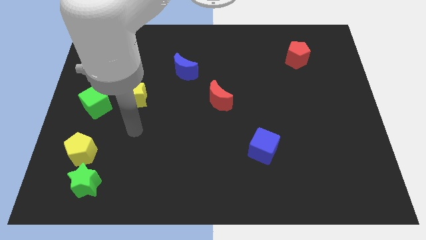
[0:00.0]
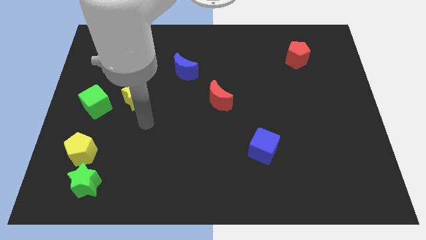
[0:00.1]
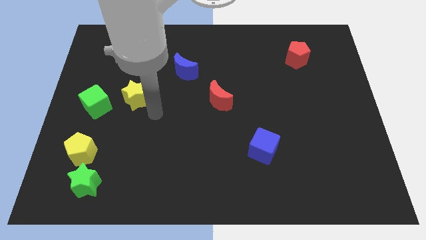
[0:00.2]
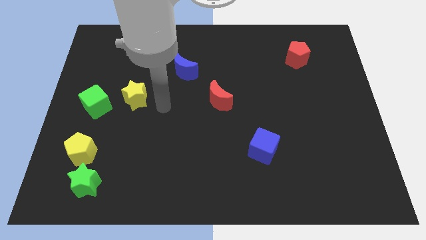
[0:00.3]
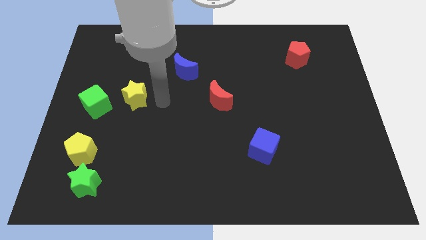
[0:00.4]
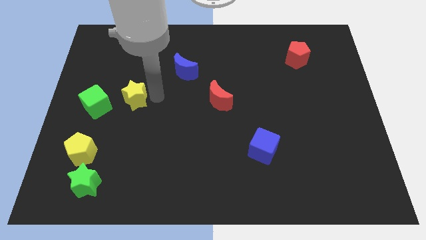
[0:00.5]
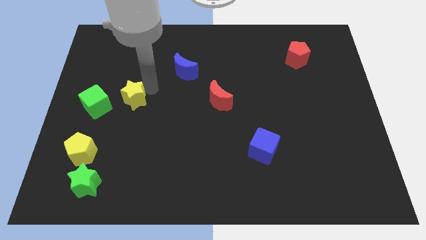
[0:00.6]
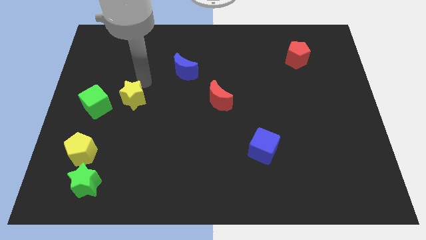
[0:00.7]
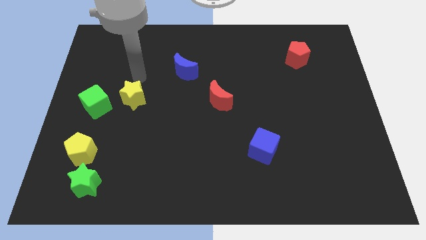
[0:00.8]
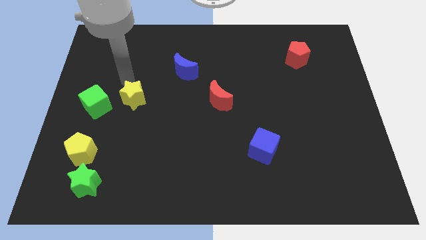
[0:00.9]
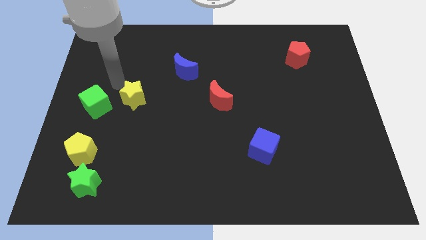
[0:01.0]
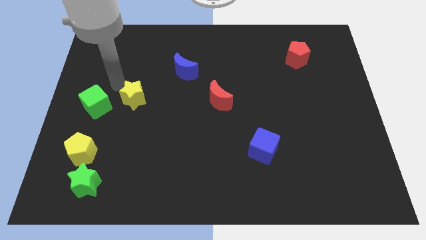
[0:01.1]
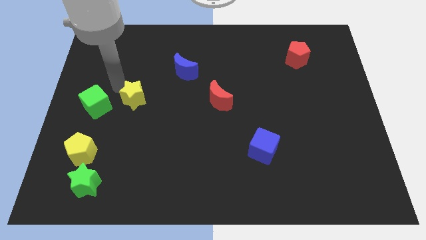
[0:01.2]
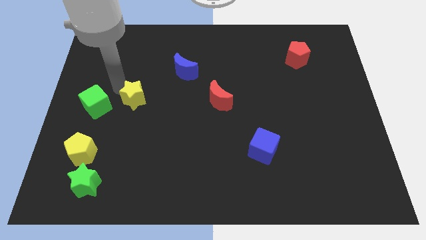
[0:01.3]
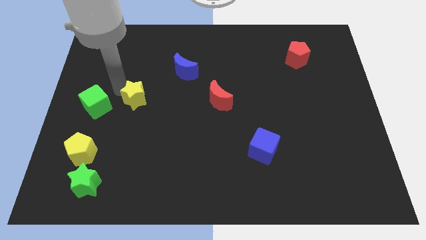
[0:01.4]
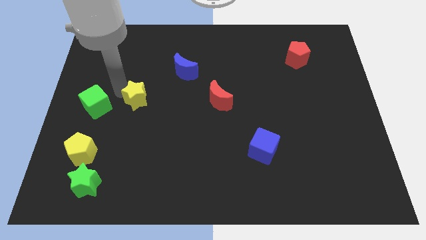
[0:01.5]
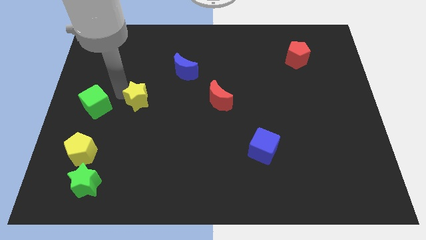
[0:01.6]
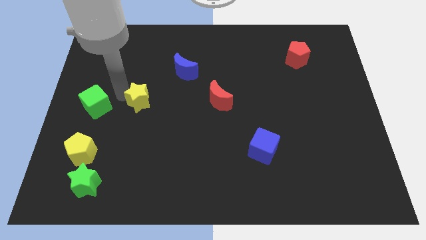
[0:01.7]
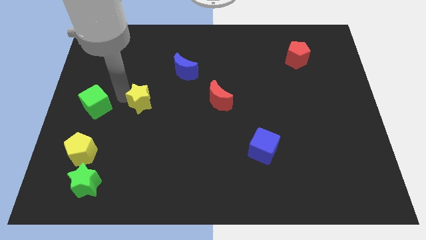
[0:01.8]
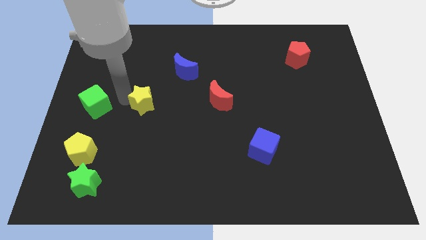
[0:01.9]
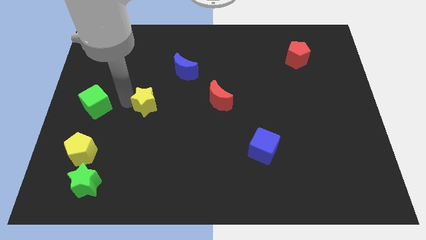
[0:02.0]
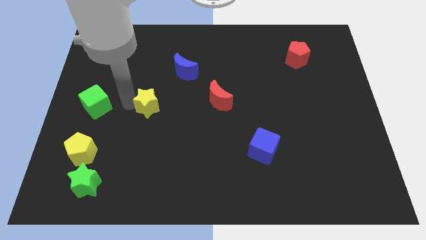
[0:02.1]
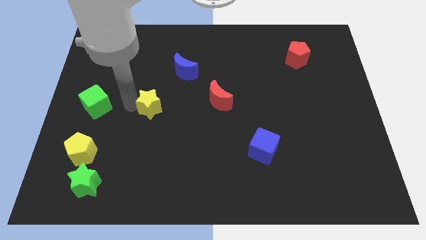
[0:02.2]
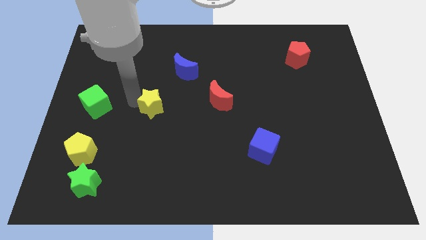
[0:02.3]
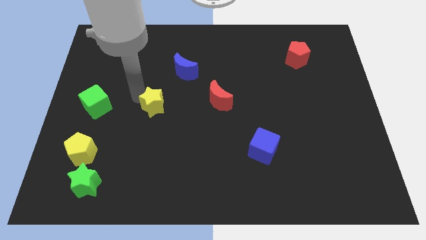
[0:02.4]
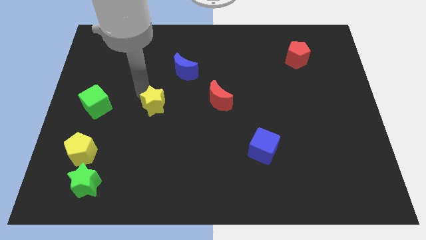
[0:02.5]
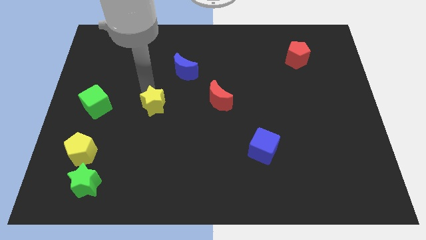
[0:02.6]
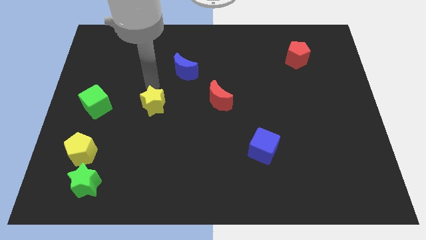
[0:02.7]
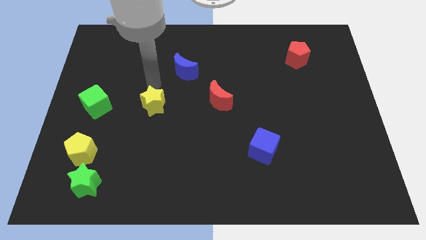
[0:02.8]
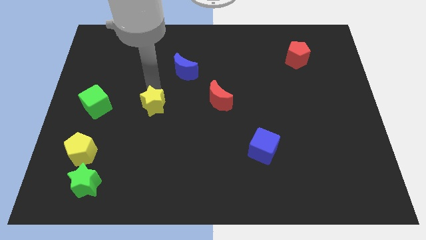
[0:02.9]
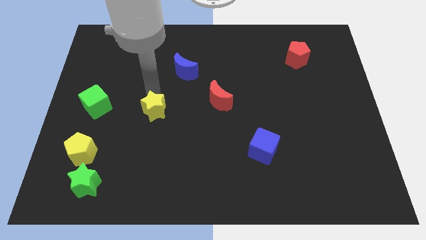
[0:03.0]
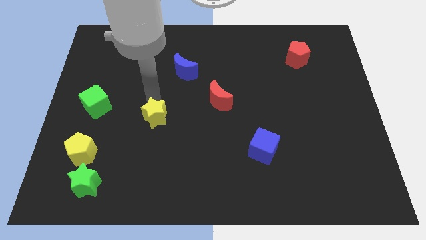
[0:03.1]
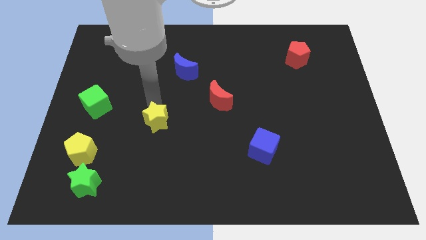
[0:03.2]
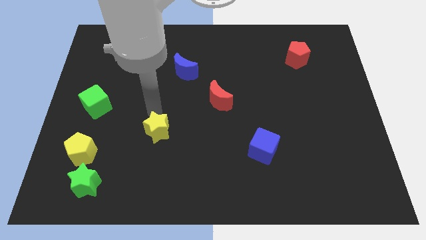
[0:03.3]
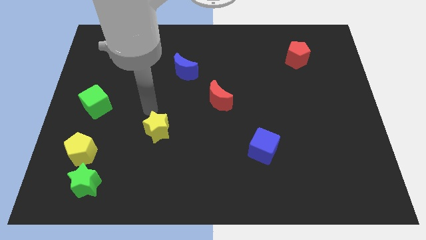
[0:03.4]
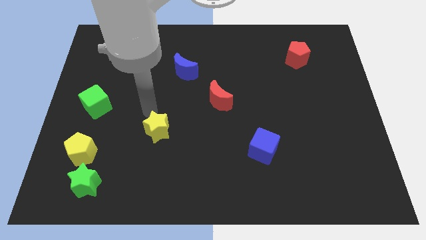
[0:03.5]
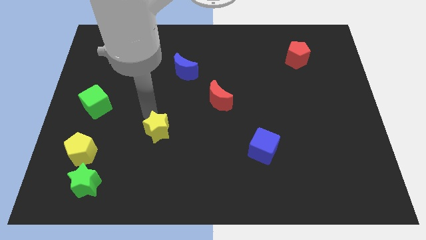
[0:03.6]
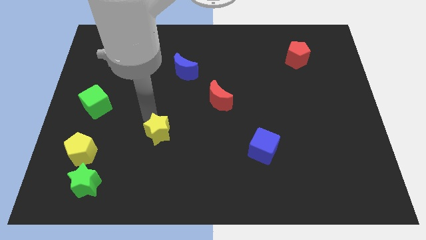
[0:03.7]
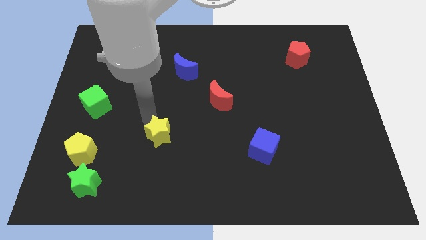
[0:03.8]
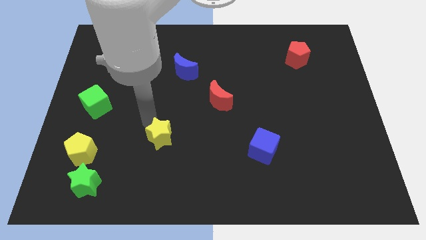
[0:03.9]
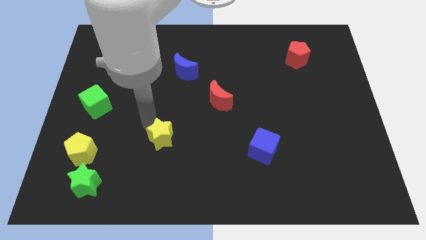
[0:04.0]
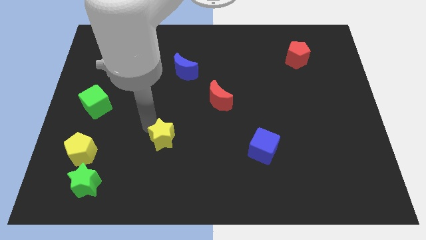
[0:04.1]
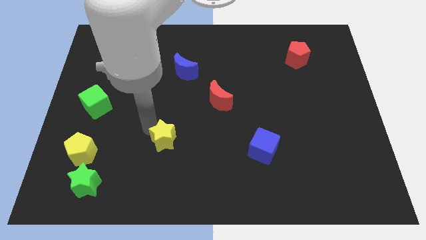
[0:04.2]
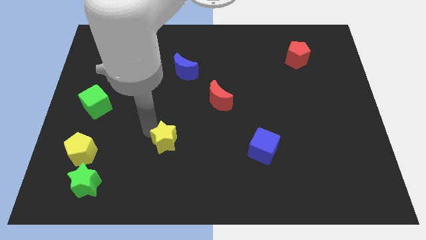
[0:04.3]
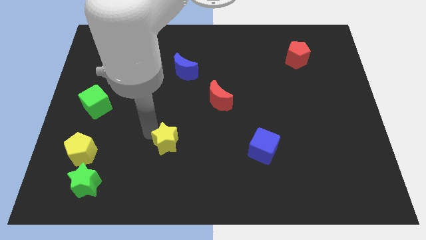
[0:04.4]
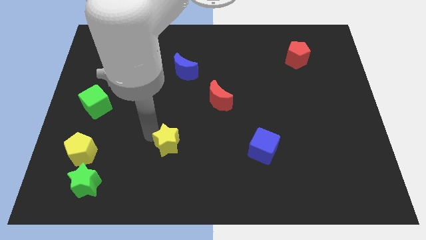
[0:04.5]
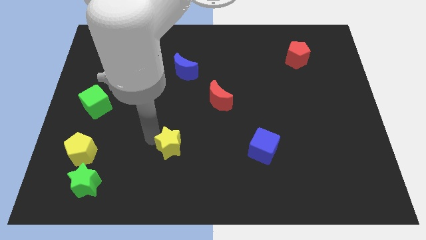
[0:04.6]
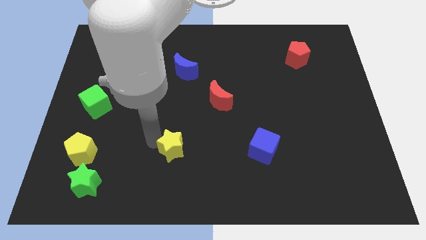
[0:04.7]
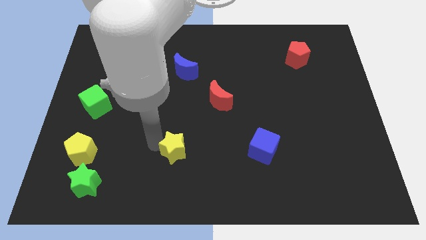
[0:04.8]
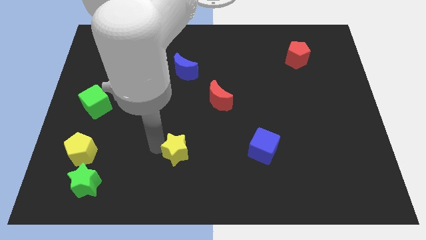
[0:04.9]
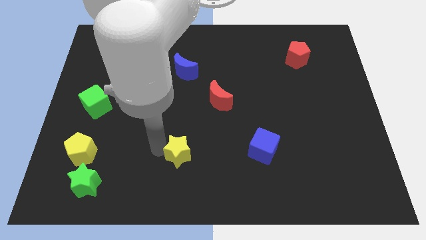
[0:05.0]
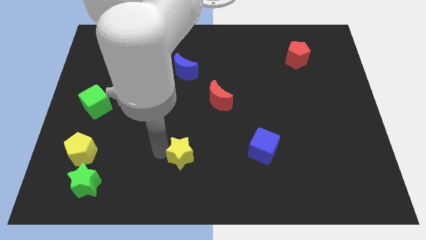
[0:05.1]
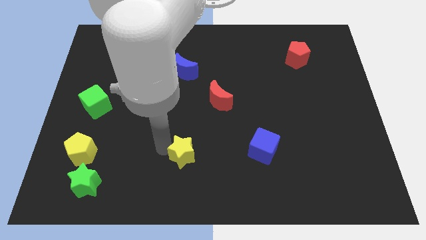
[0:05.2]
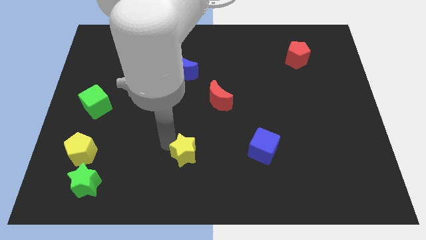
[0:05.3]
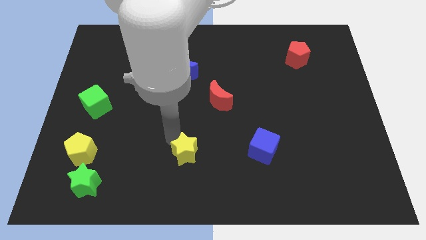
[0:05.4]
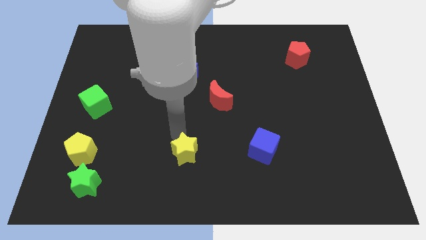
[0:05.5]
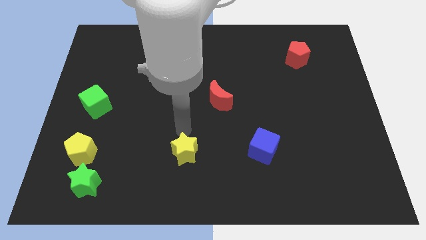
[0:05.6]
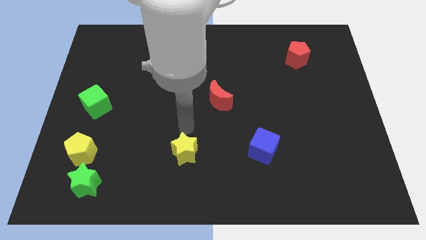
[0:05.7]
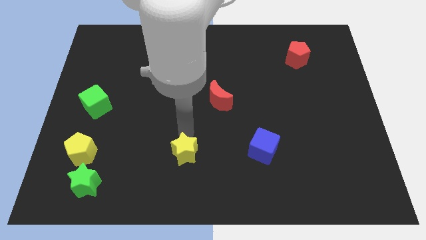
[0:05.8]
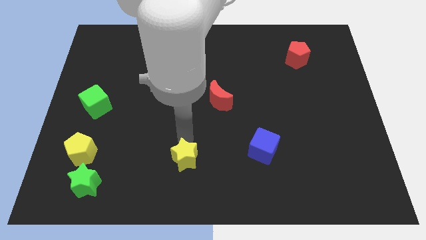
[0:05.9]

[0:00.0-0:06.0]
move the yellow star to the bottom side
